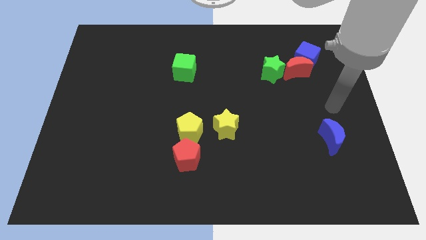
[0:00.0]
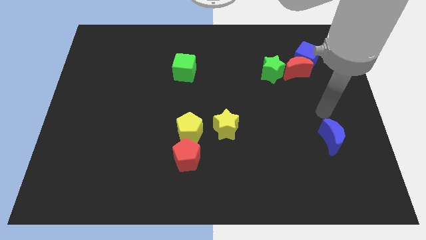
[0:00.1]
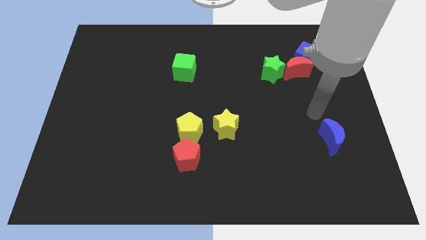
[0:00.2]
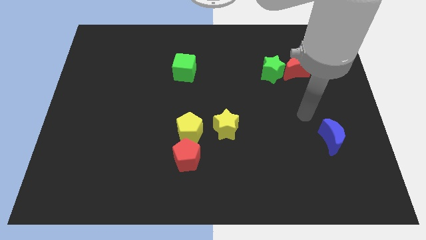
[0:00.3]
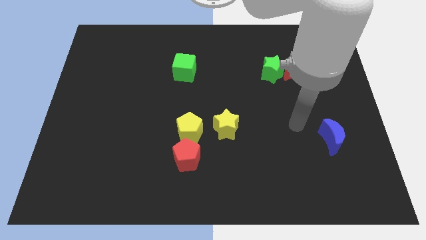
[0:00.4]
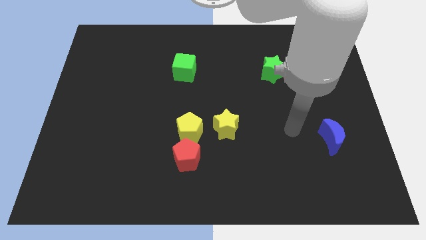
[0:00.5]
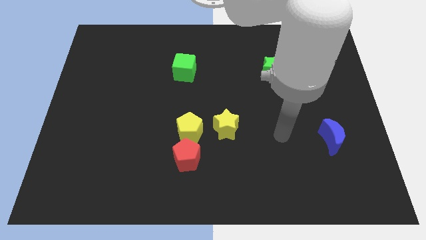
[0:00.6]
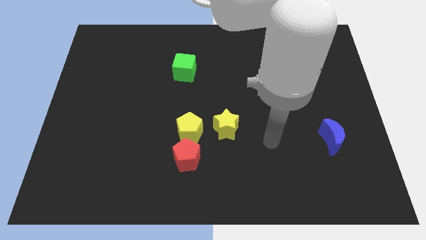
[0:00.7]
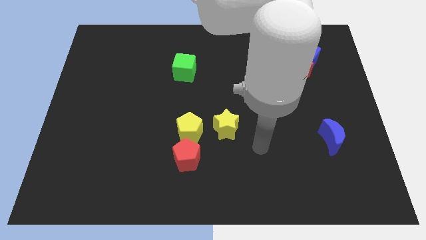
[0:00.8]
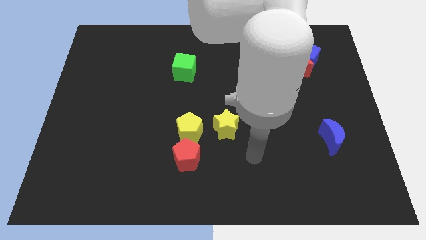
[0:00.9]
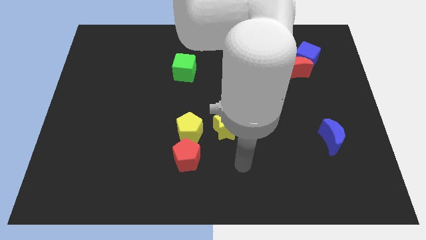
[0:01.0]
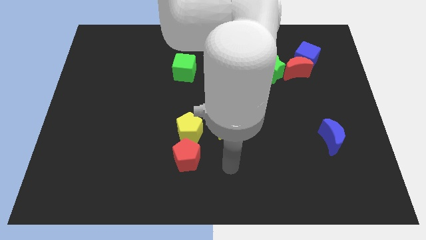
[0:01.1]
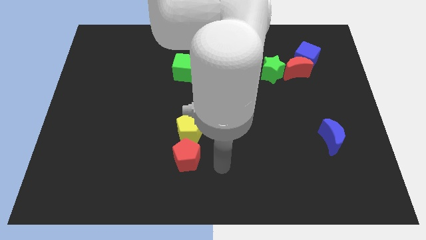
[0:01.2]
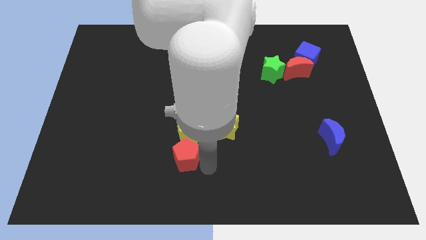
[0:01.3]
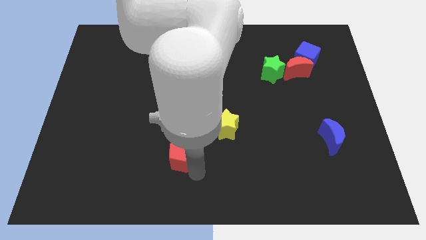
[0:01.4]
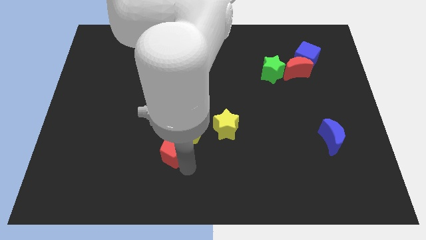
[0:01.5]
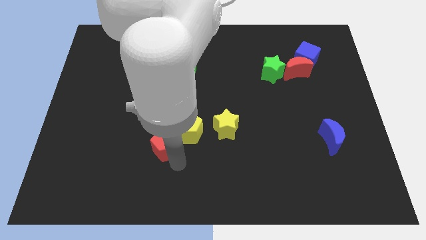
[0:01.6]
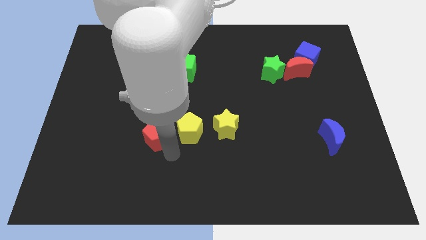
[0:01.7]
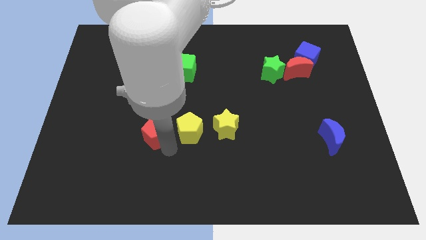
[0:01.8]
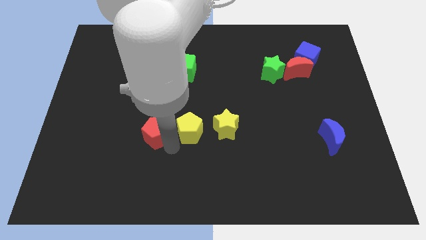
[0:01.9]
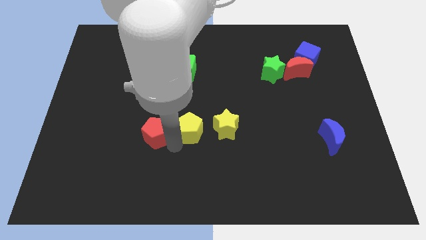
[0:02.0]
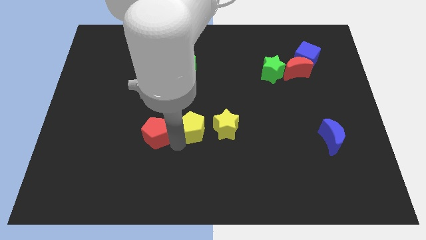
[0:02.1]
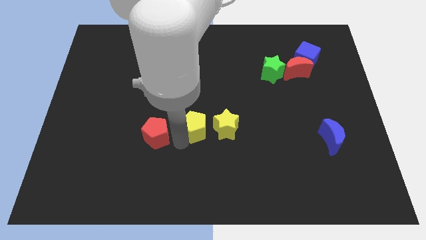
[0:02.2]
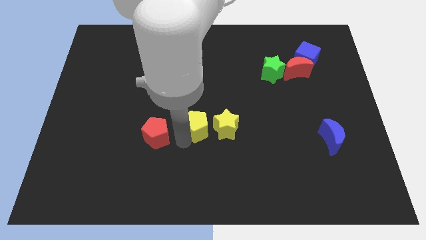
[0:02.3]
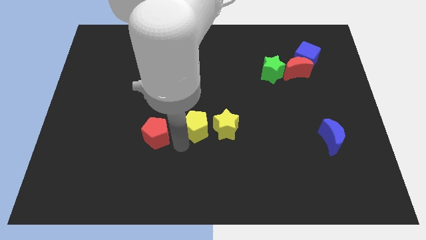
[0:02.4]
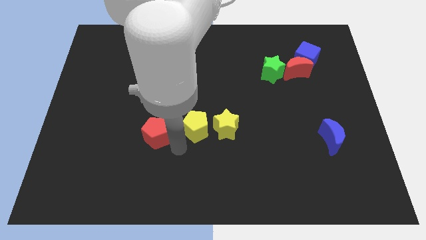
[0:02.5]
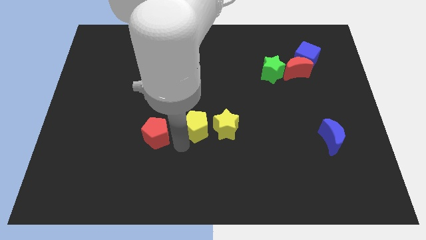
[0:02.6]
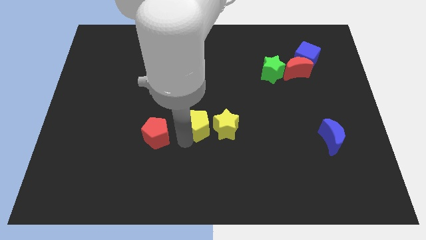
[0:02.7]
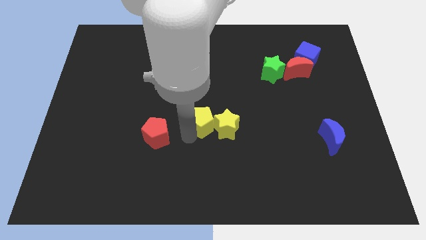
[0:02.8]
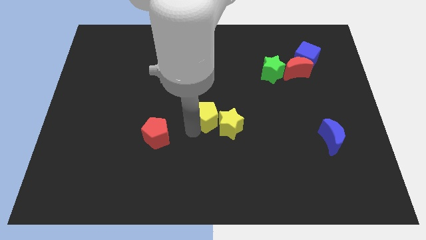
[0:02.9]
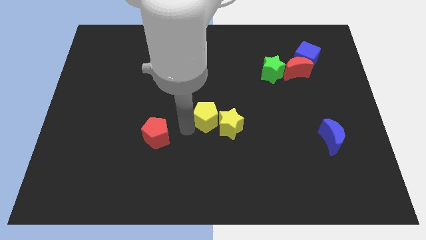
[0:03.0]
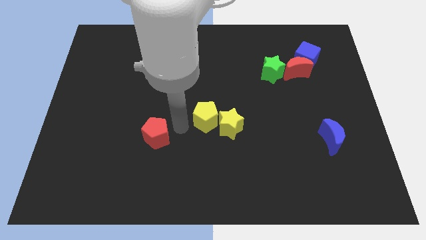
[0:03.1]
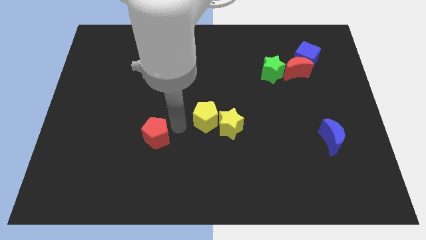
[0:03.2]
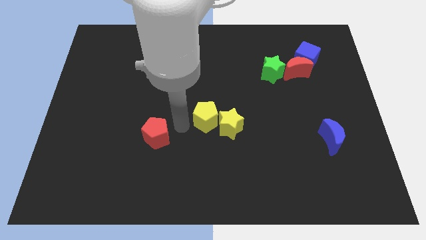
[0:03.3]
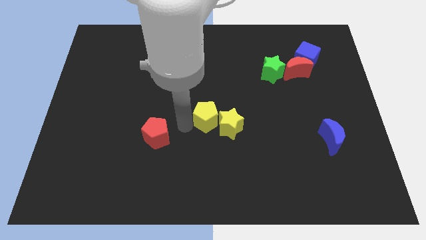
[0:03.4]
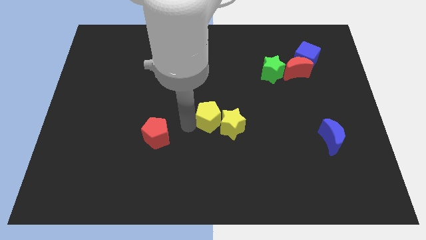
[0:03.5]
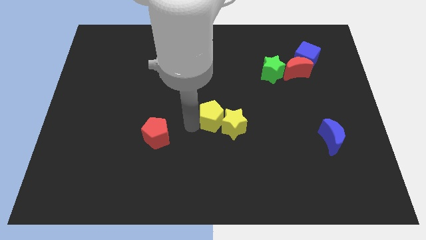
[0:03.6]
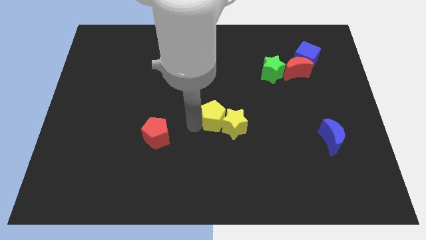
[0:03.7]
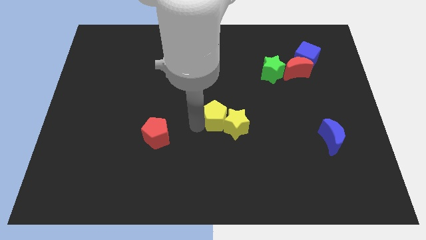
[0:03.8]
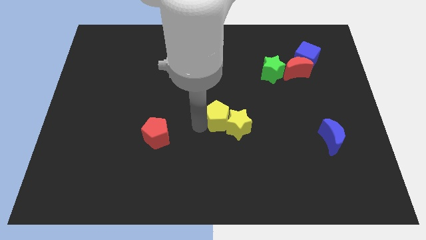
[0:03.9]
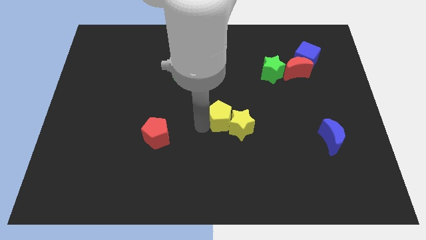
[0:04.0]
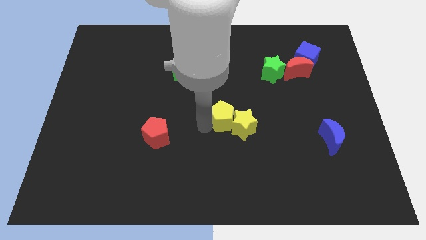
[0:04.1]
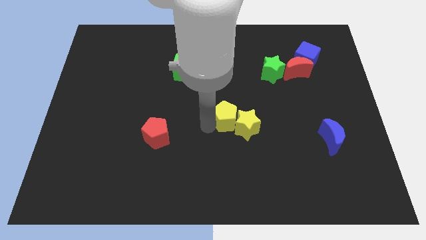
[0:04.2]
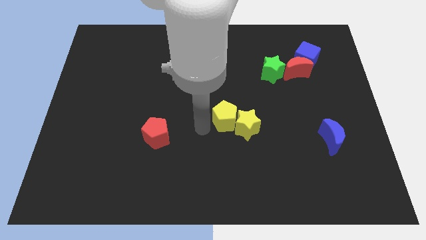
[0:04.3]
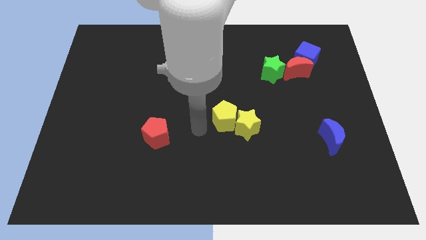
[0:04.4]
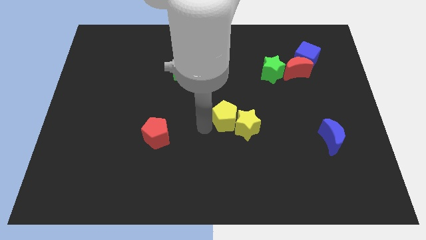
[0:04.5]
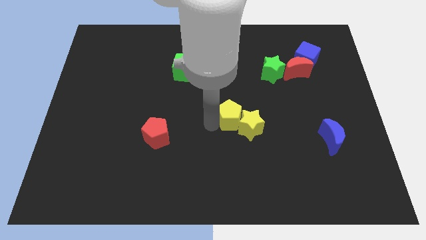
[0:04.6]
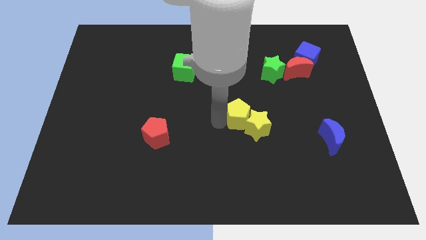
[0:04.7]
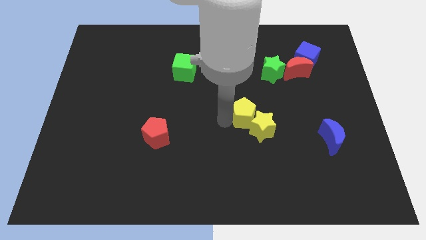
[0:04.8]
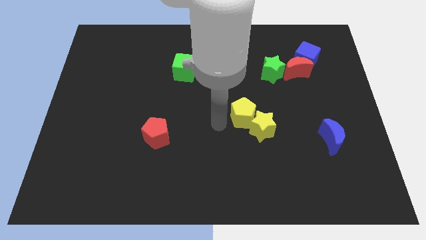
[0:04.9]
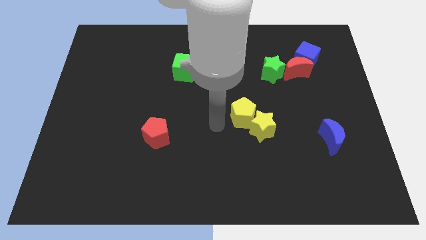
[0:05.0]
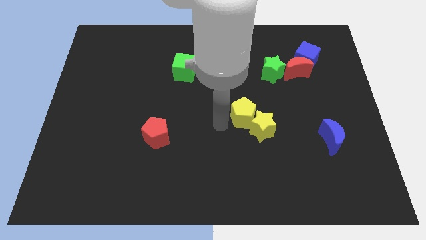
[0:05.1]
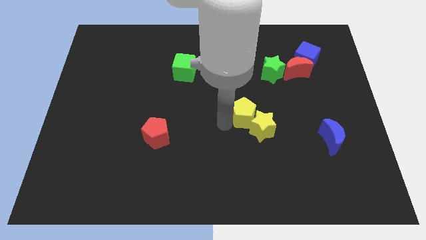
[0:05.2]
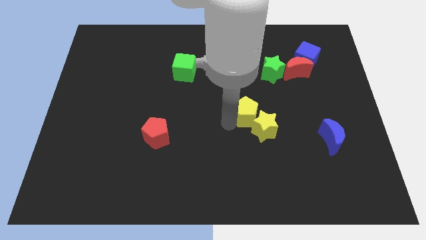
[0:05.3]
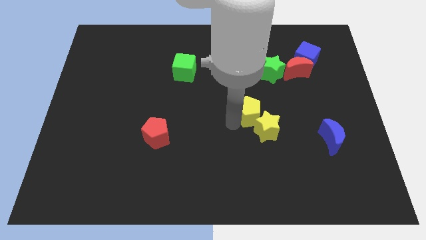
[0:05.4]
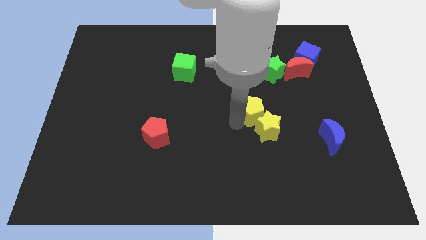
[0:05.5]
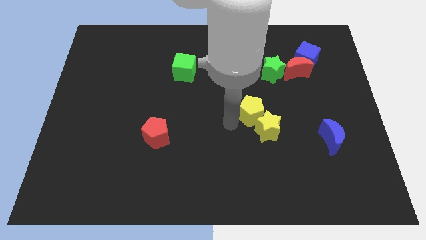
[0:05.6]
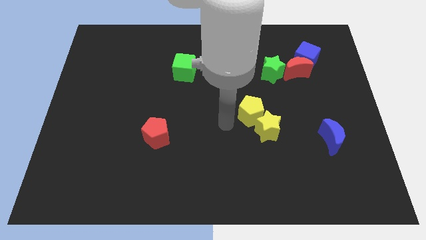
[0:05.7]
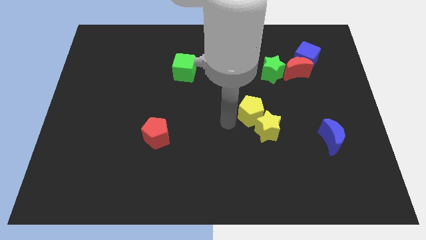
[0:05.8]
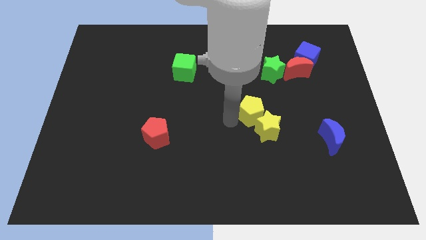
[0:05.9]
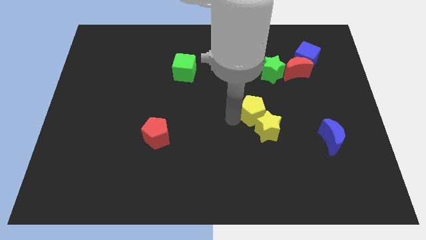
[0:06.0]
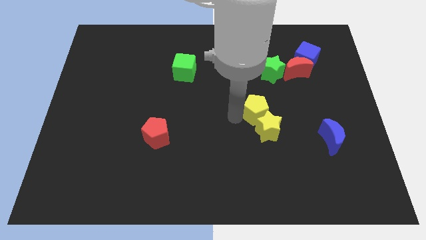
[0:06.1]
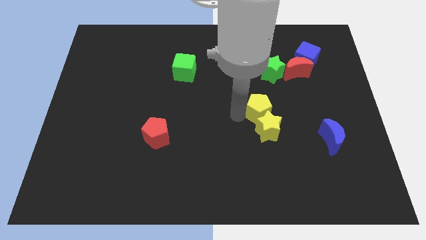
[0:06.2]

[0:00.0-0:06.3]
push the yellow pentagon to the bottom of the green star

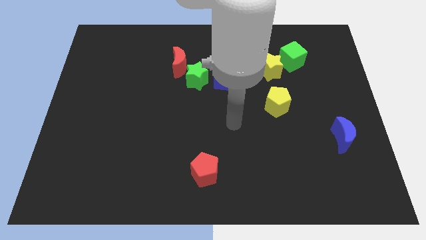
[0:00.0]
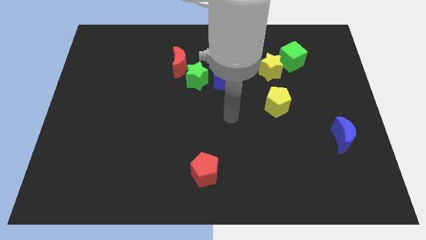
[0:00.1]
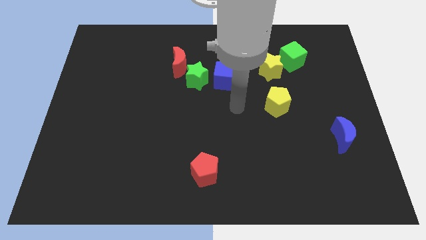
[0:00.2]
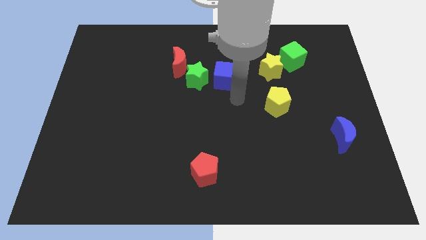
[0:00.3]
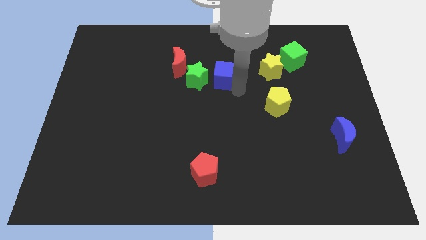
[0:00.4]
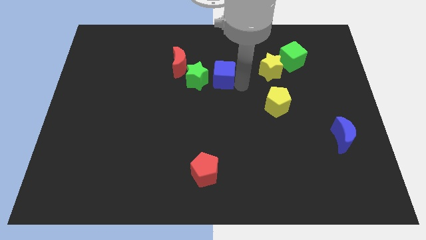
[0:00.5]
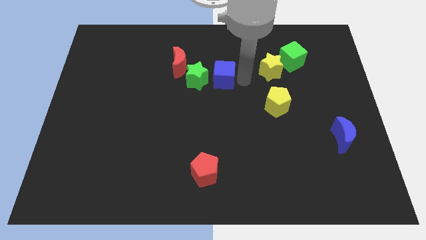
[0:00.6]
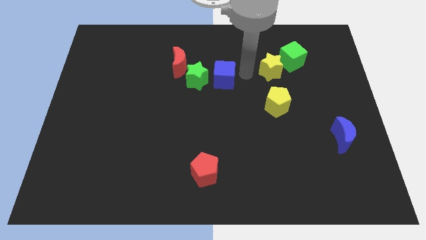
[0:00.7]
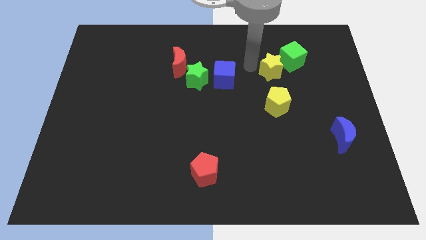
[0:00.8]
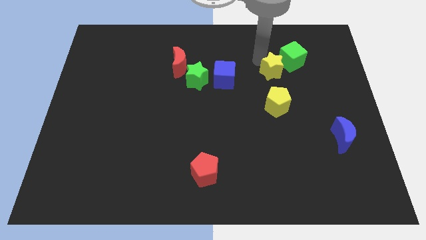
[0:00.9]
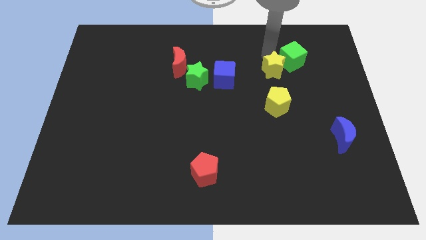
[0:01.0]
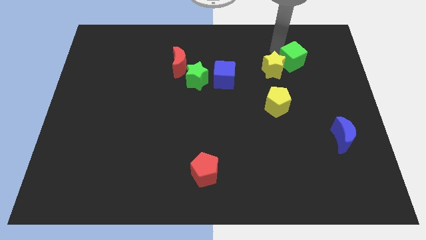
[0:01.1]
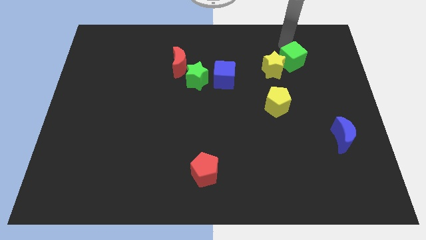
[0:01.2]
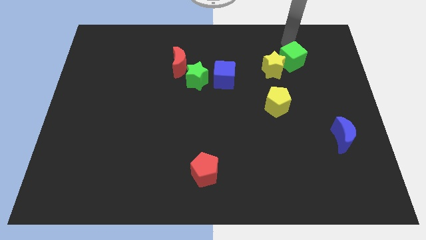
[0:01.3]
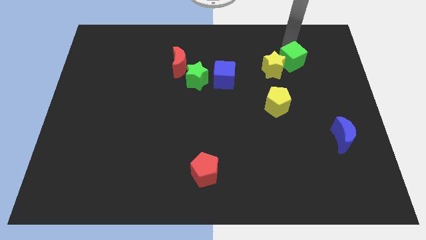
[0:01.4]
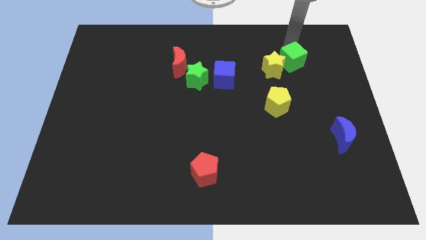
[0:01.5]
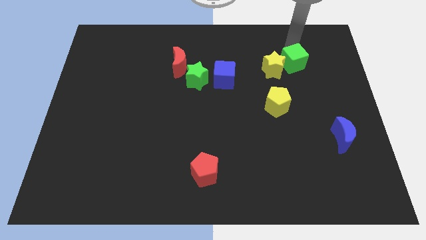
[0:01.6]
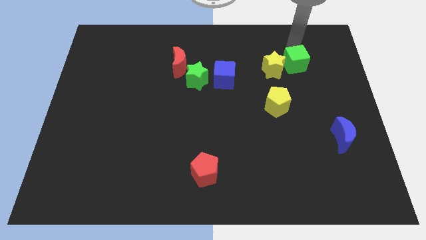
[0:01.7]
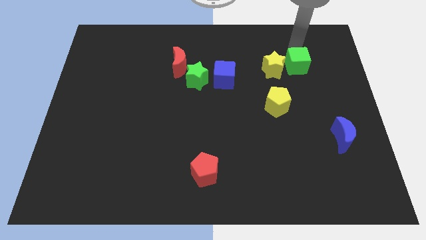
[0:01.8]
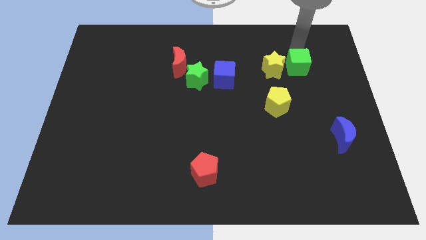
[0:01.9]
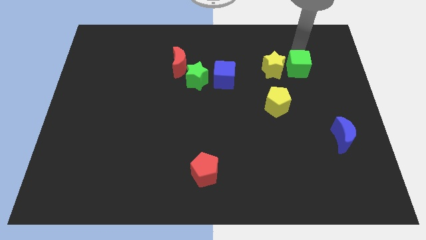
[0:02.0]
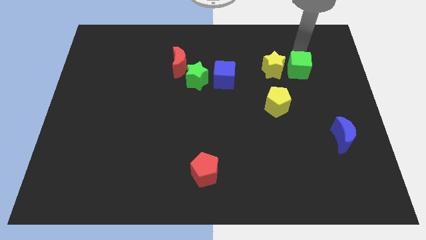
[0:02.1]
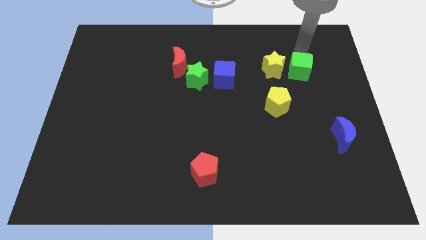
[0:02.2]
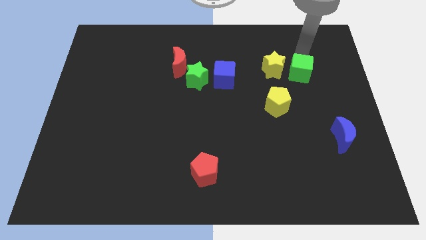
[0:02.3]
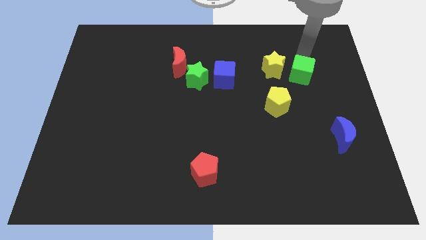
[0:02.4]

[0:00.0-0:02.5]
move the green cube to the top right of the yellow pentagon
